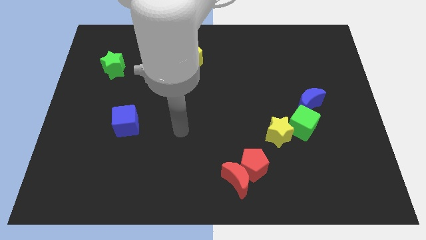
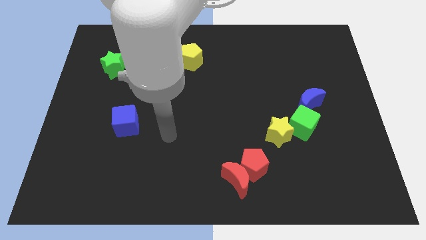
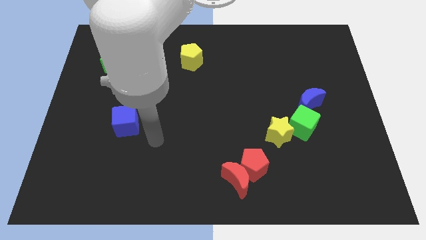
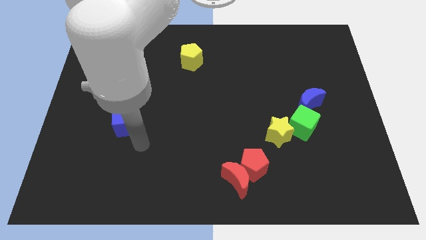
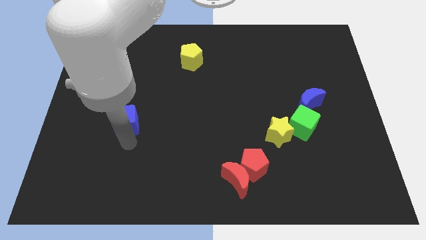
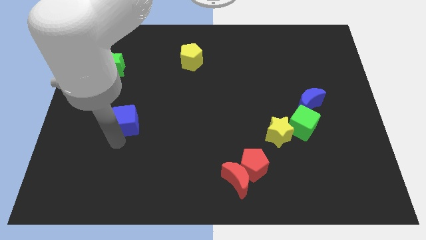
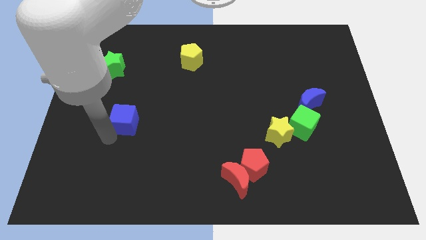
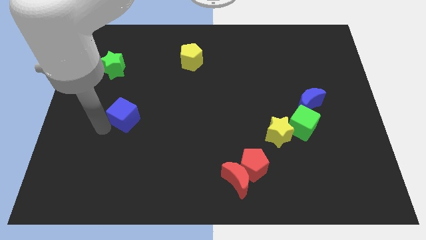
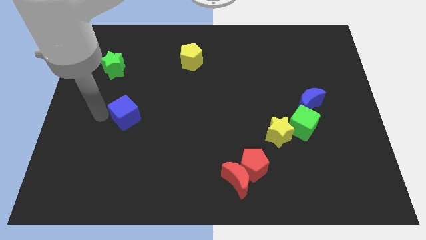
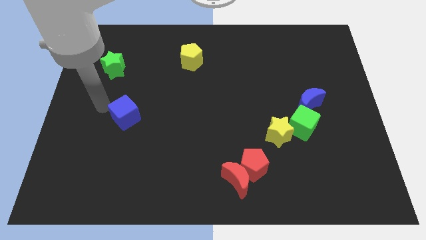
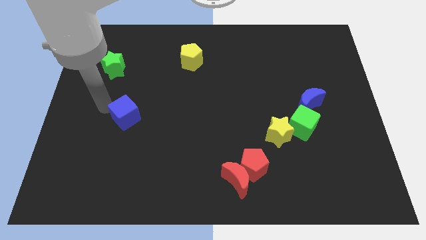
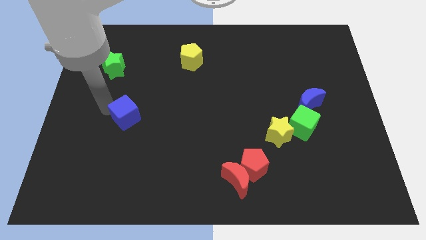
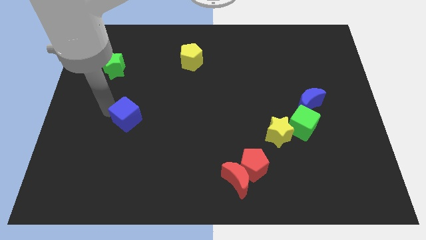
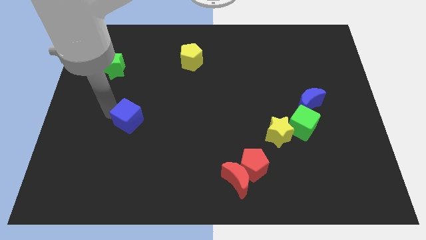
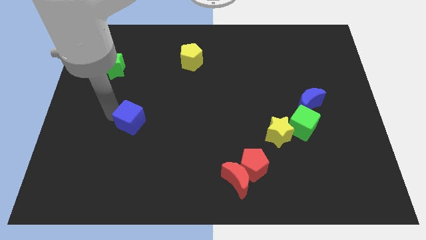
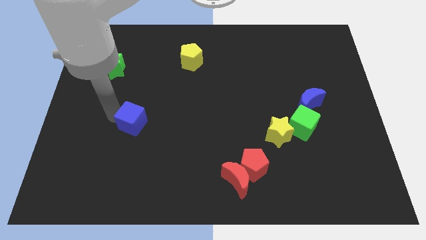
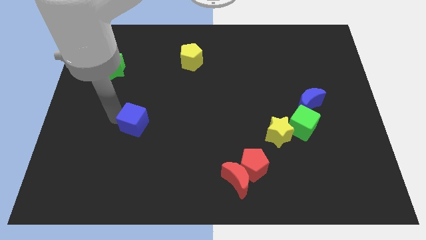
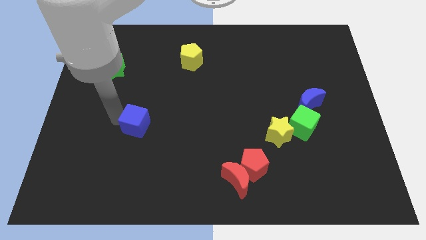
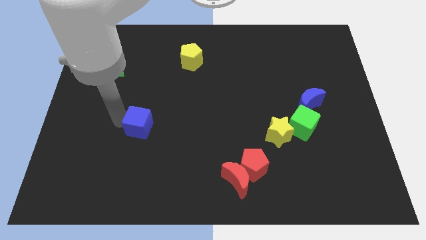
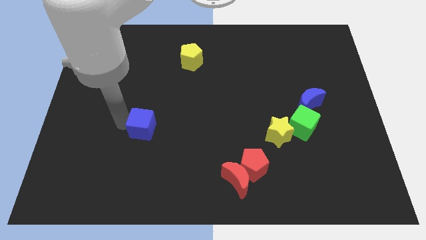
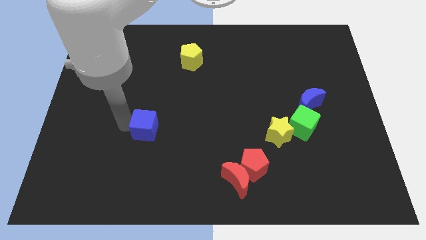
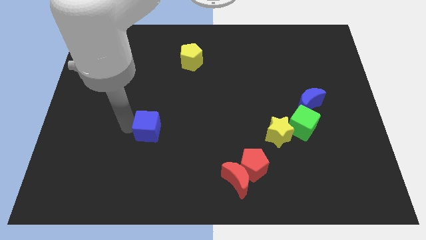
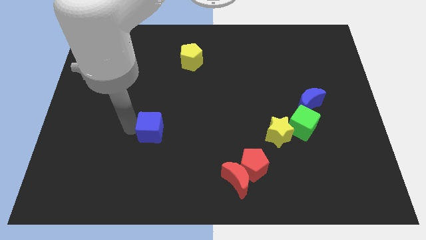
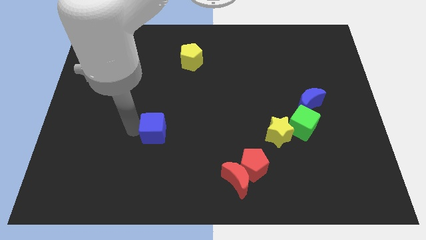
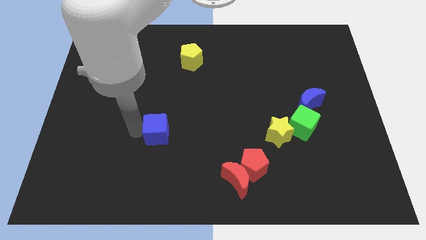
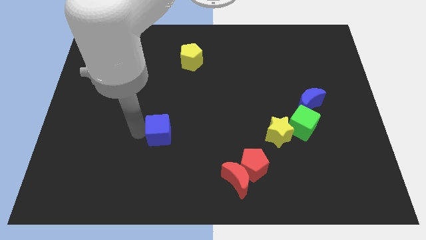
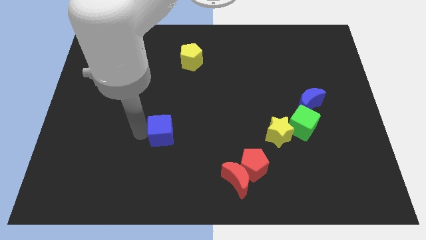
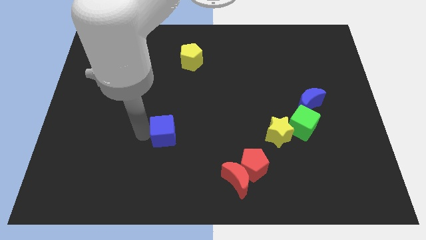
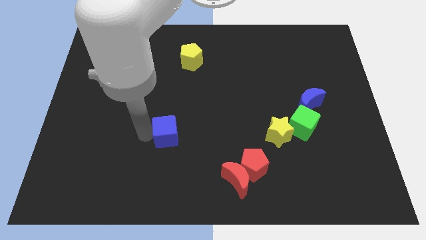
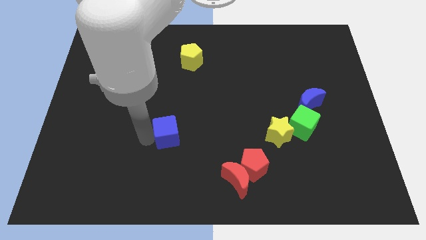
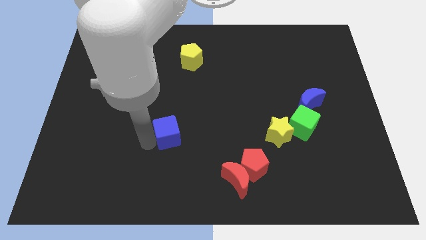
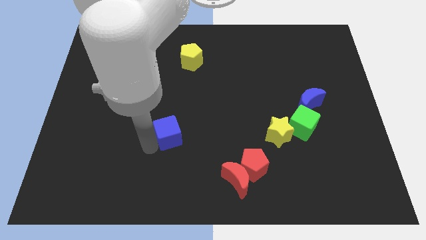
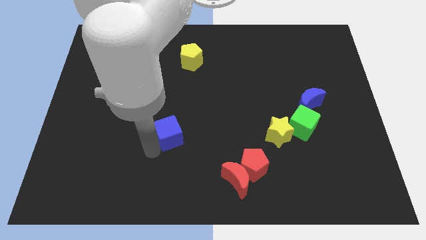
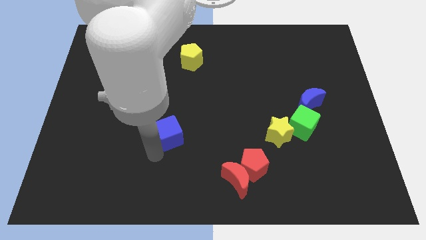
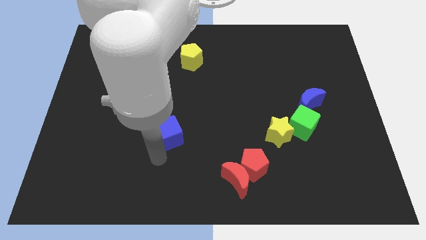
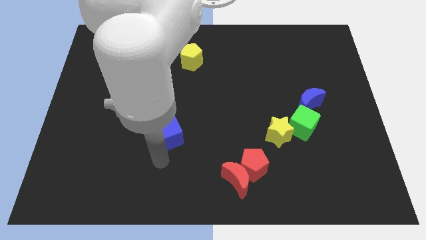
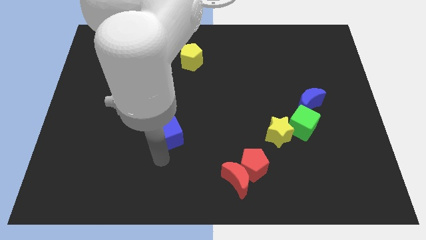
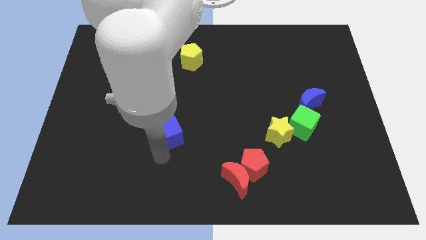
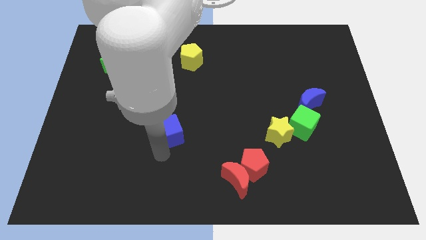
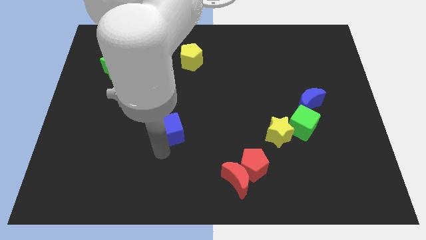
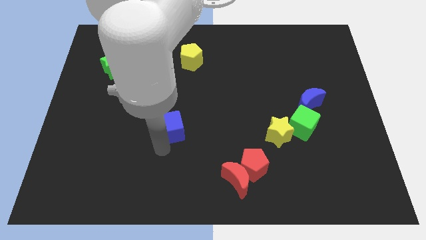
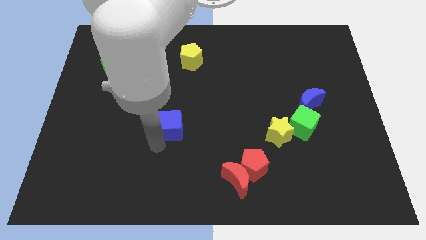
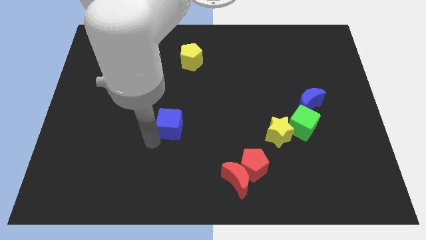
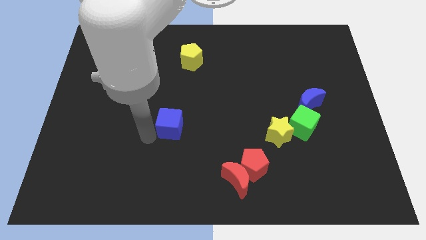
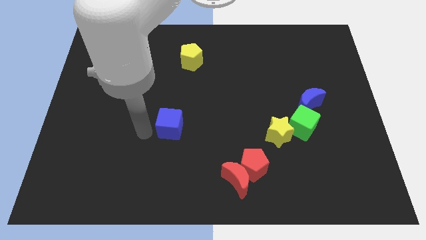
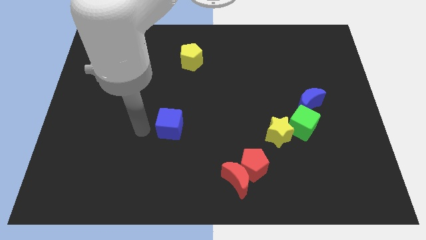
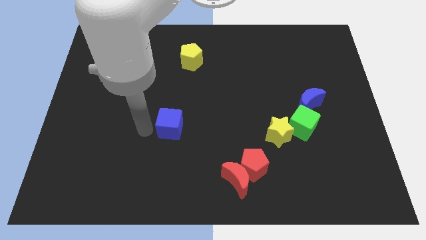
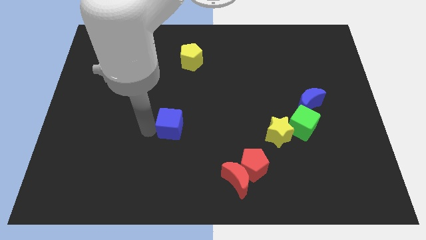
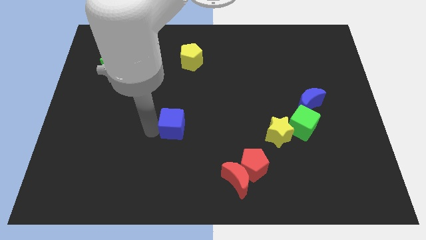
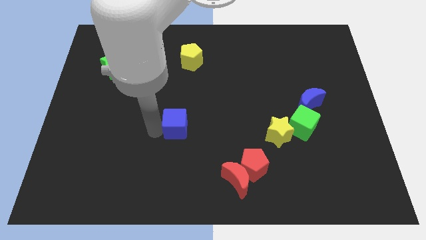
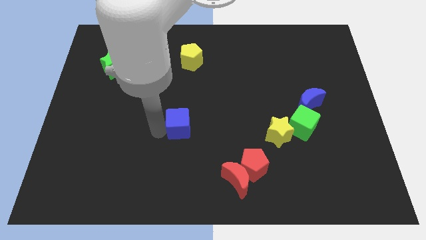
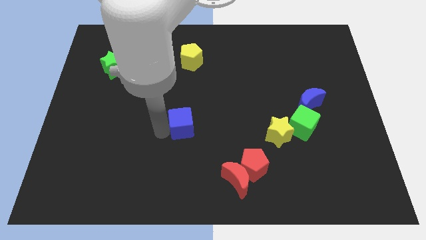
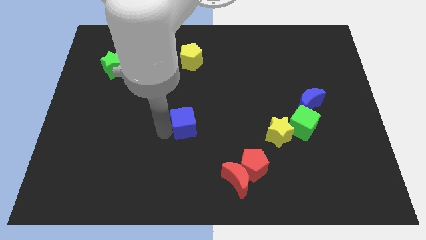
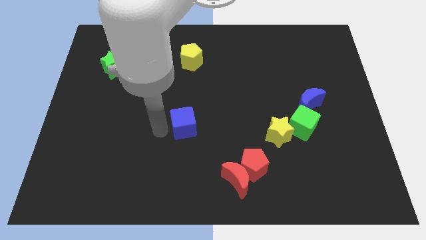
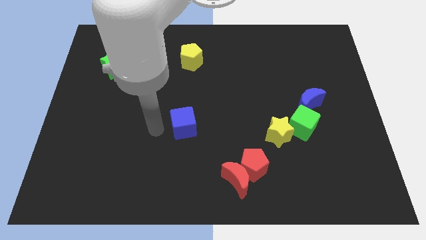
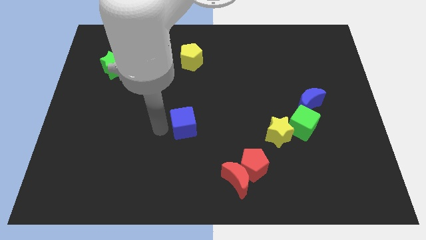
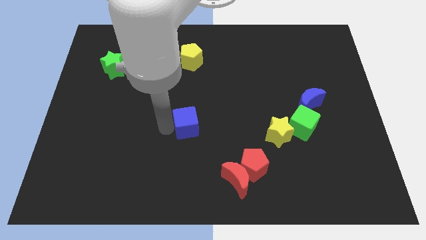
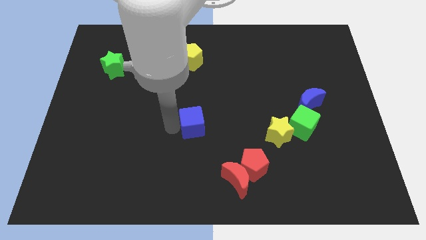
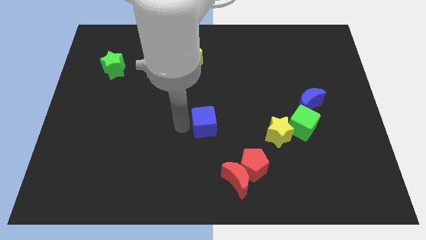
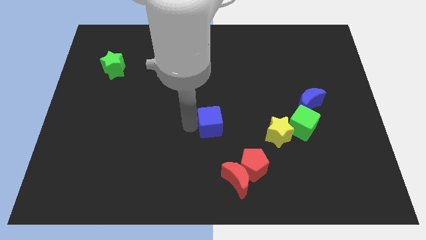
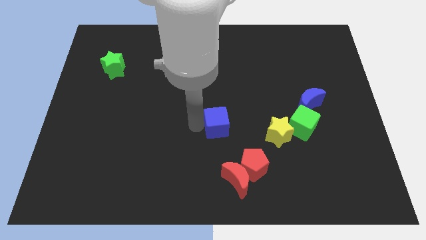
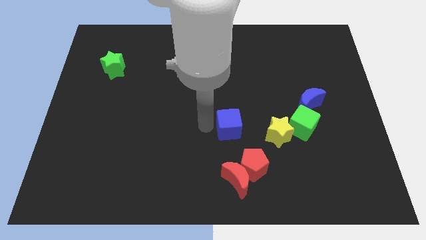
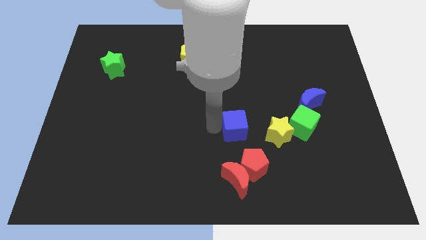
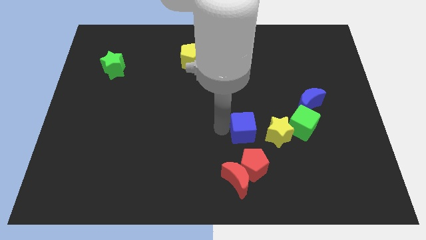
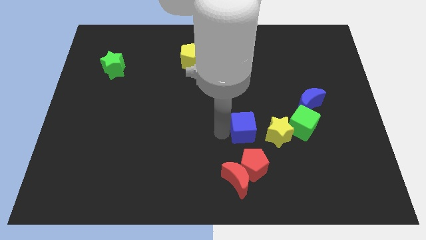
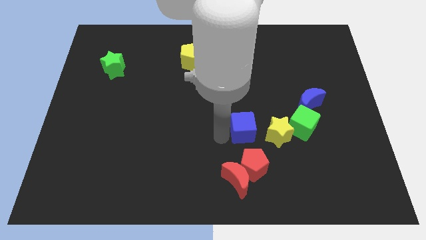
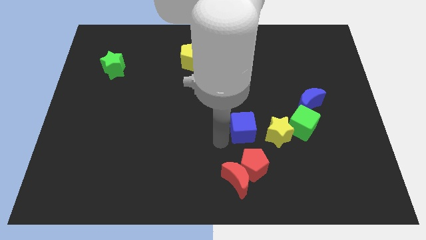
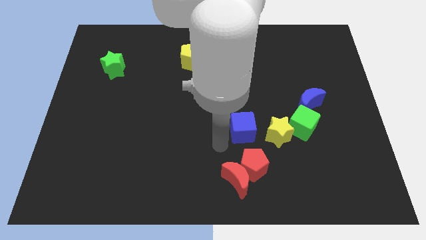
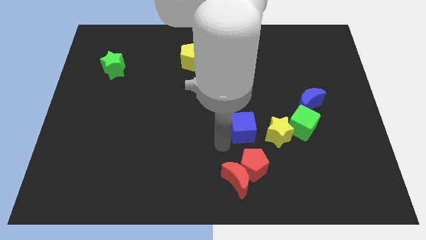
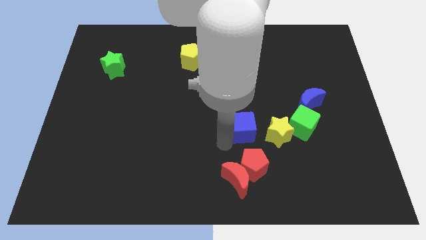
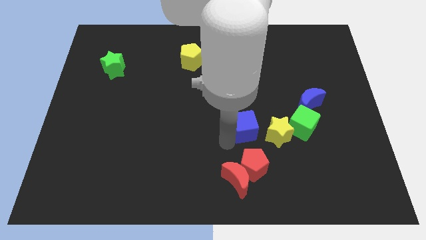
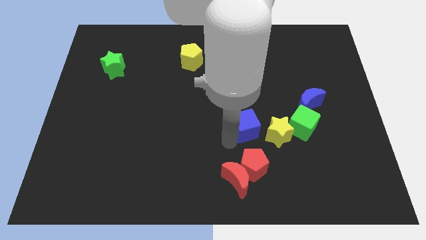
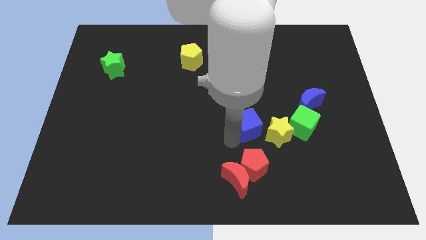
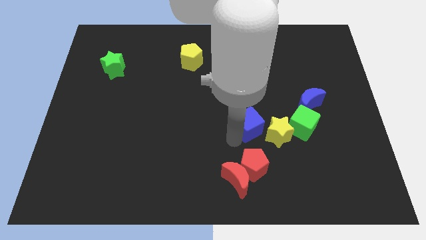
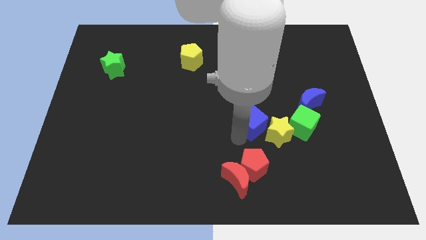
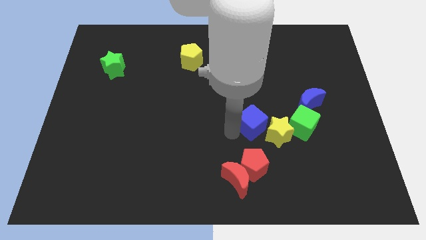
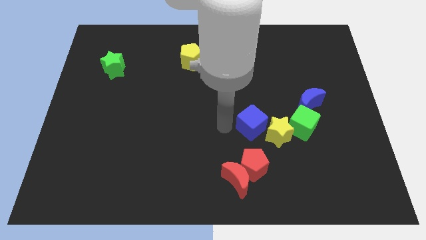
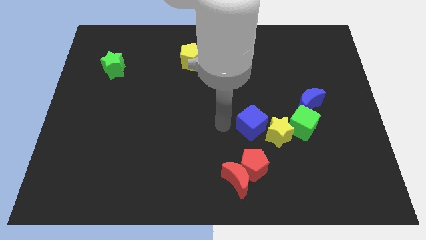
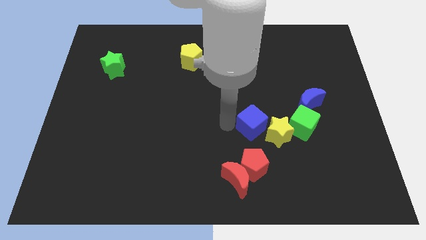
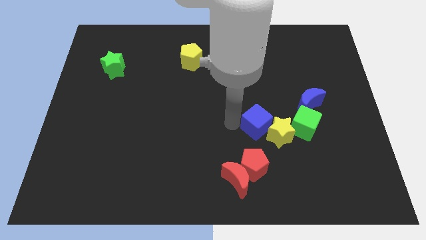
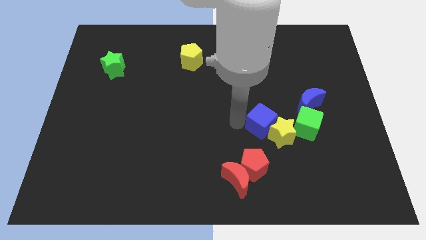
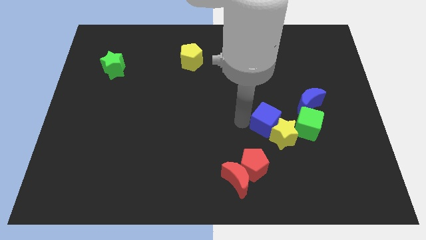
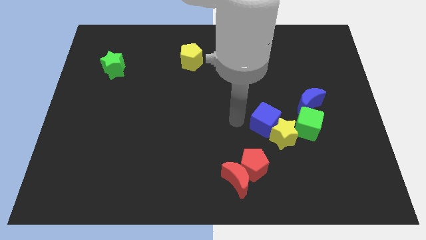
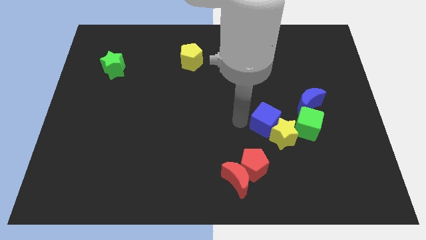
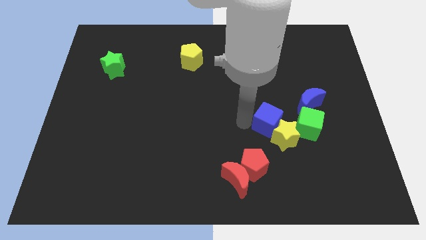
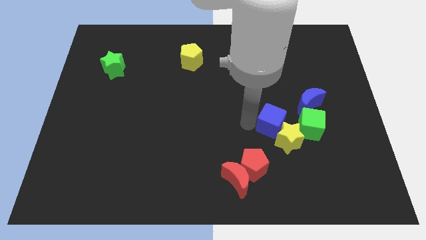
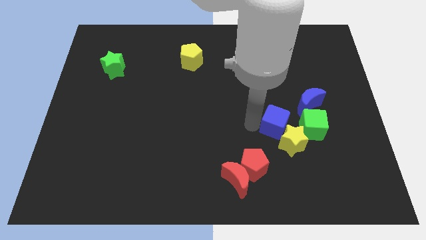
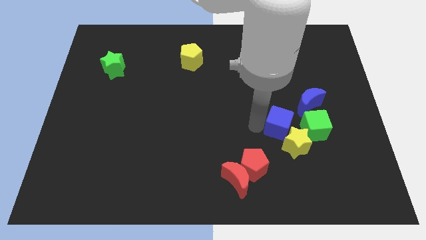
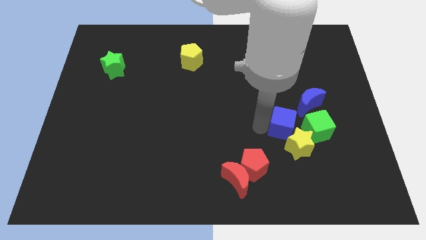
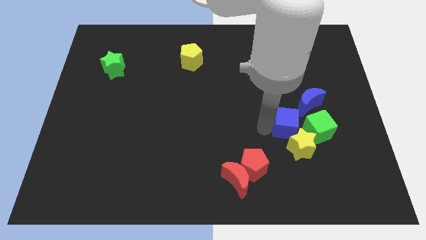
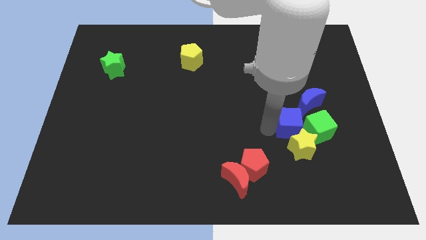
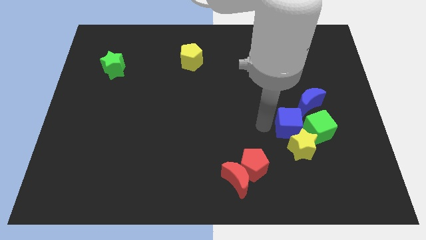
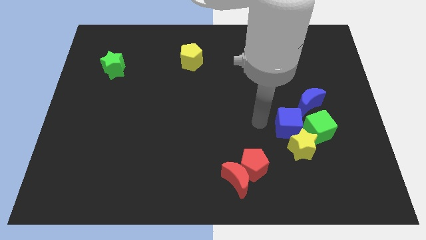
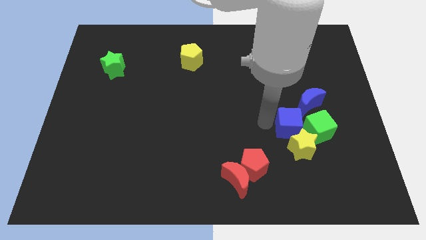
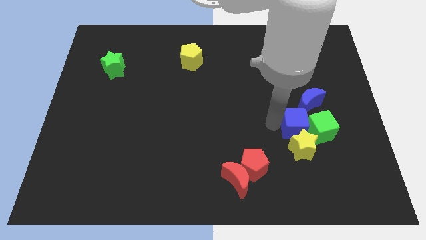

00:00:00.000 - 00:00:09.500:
move the blue cube close to the green cube
